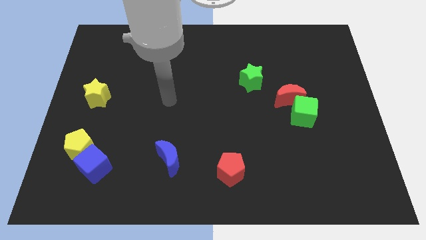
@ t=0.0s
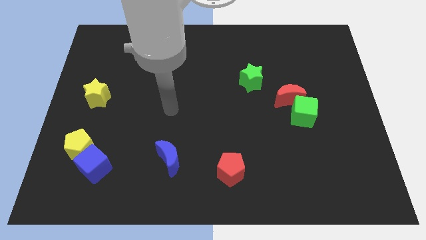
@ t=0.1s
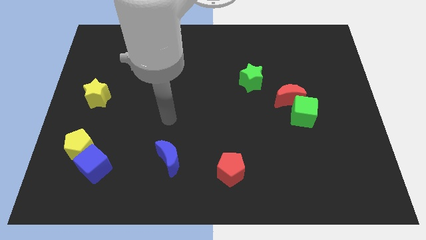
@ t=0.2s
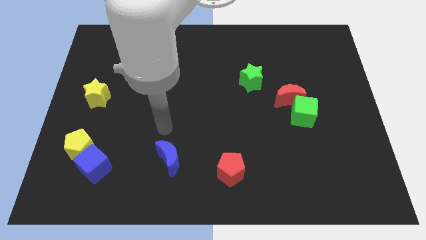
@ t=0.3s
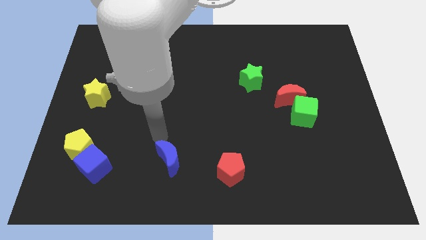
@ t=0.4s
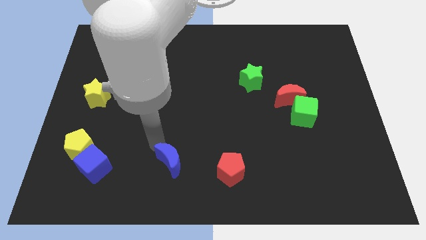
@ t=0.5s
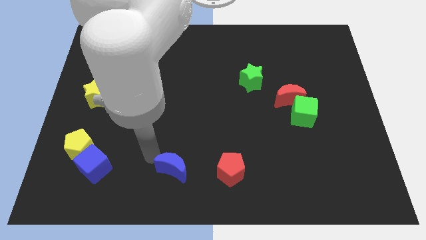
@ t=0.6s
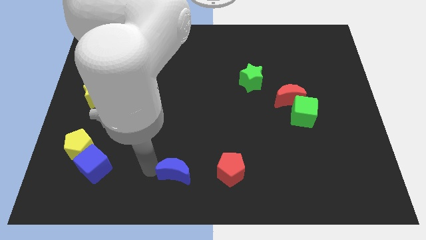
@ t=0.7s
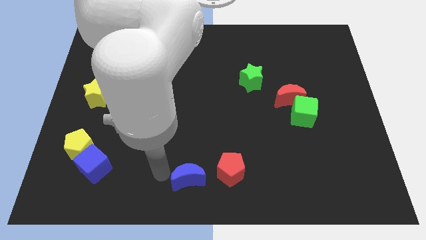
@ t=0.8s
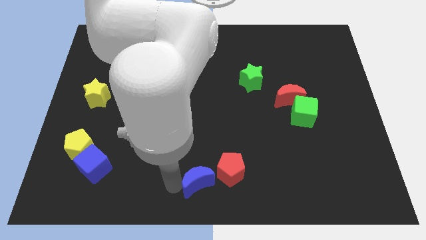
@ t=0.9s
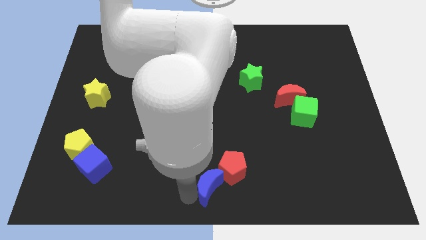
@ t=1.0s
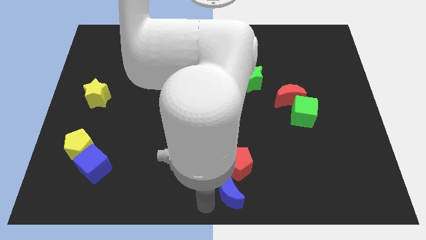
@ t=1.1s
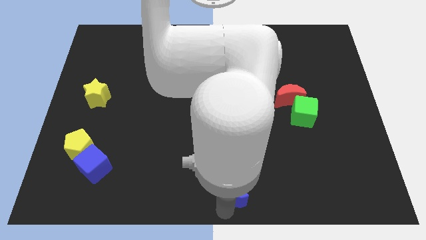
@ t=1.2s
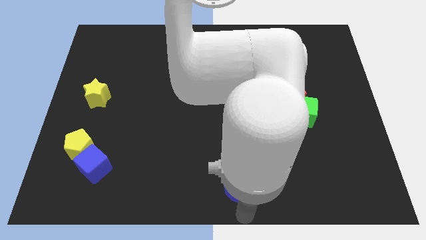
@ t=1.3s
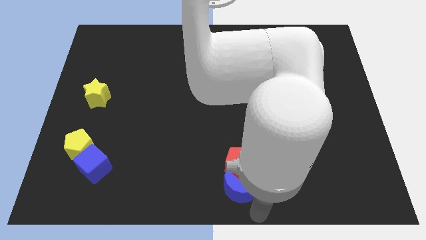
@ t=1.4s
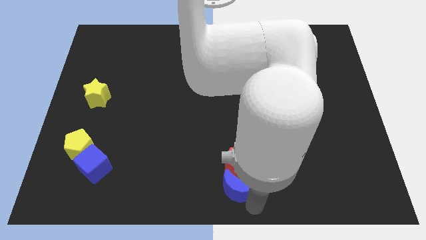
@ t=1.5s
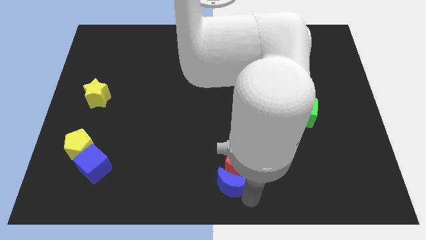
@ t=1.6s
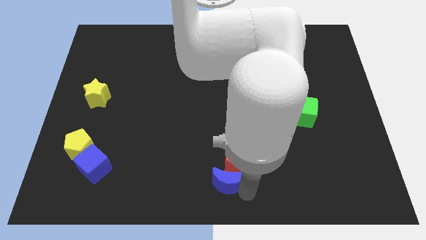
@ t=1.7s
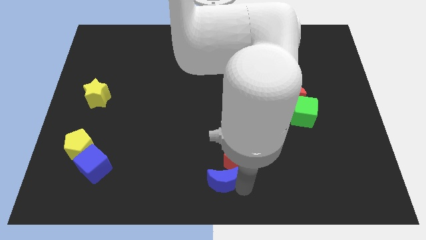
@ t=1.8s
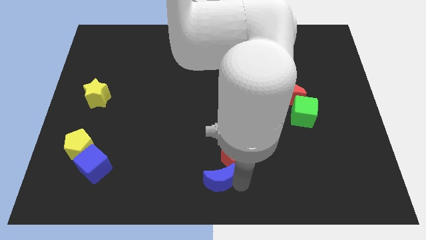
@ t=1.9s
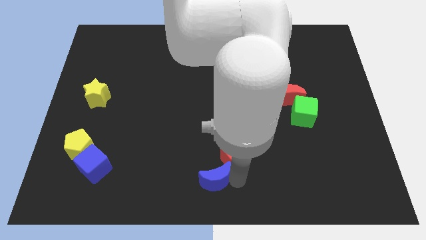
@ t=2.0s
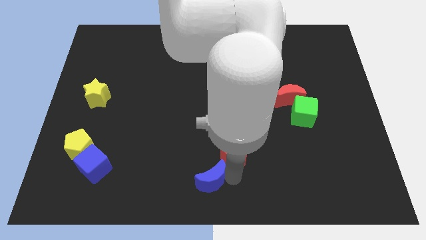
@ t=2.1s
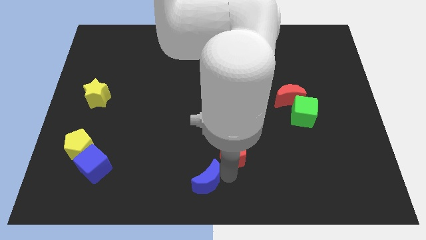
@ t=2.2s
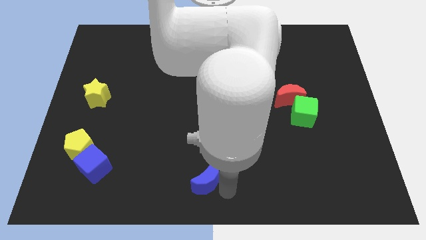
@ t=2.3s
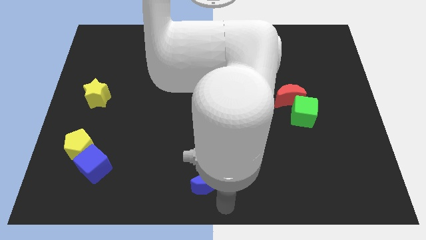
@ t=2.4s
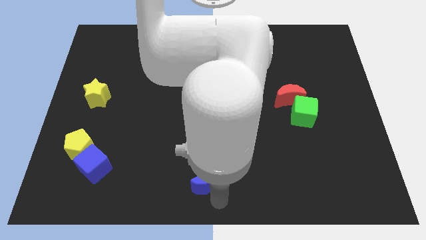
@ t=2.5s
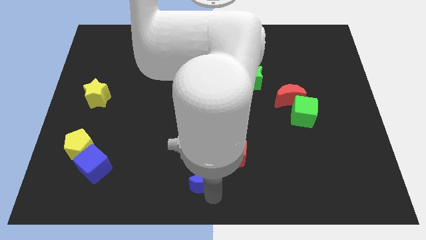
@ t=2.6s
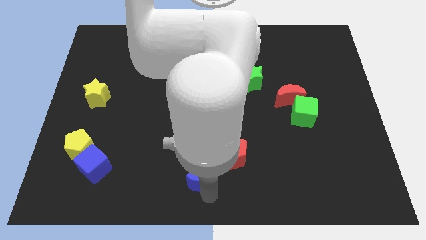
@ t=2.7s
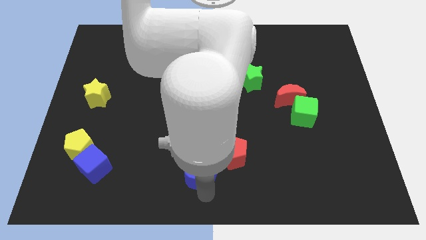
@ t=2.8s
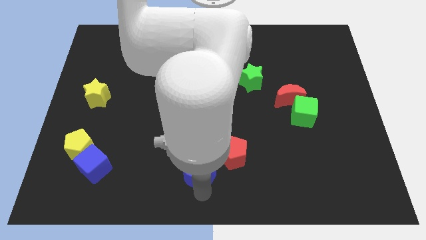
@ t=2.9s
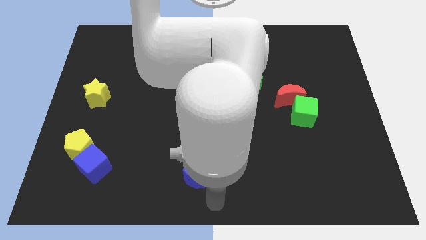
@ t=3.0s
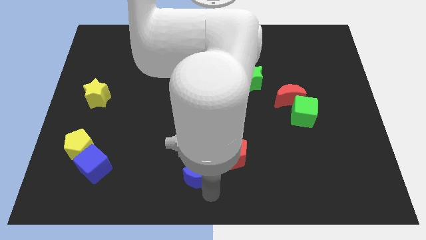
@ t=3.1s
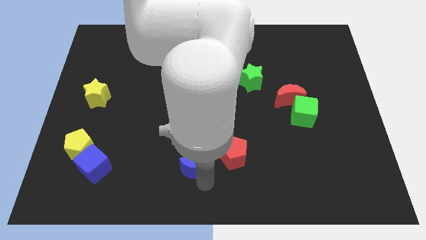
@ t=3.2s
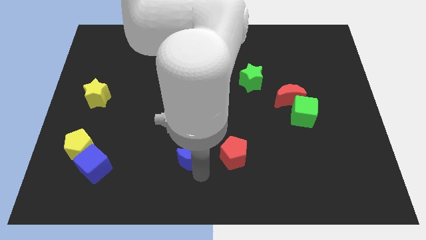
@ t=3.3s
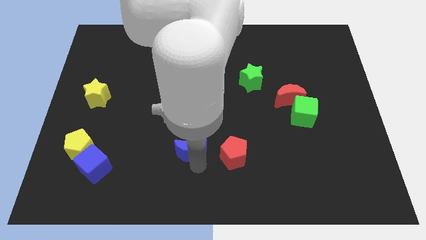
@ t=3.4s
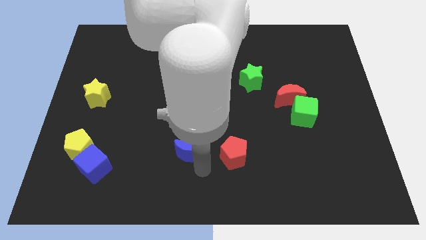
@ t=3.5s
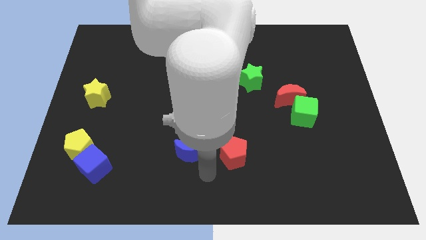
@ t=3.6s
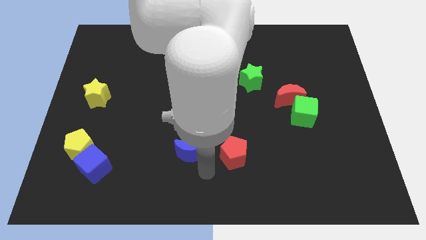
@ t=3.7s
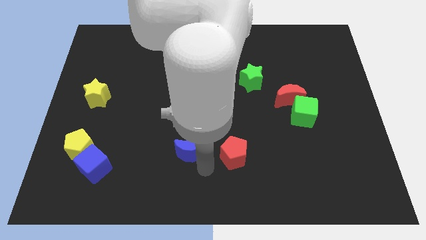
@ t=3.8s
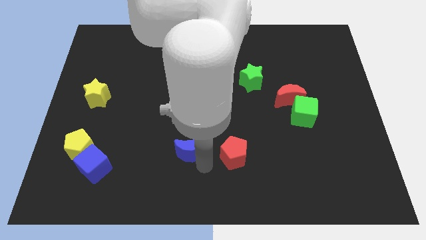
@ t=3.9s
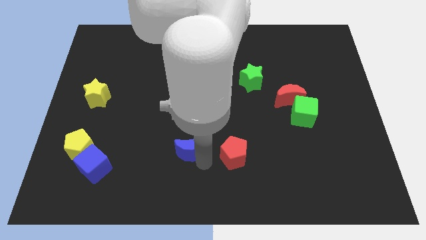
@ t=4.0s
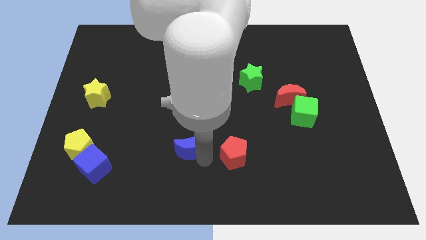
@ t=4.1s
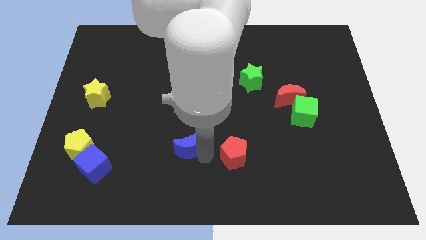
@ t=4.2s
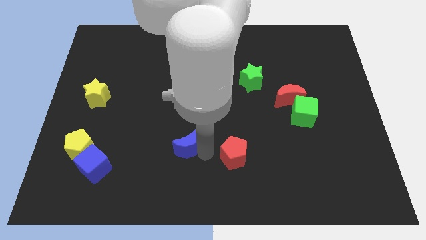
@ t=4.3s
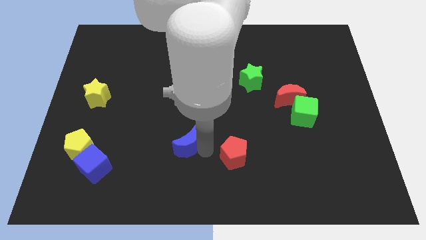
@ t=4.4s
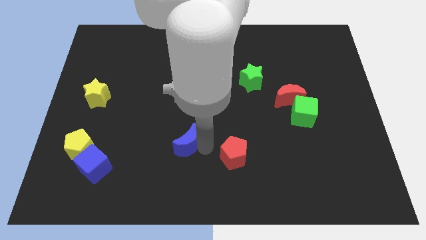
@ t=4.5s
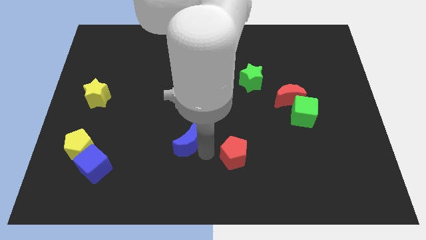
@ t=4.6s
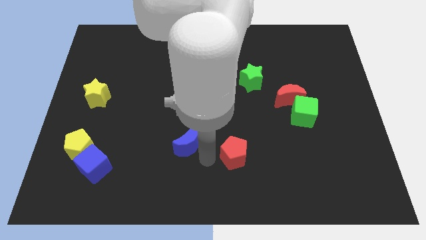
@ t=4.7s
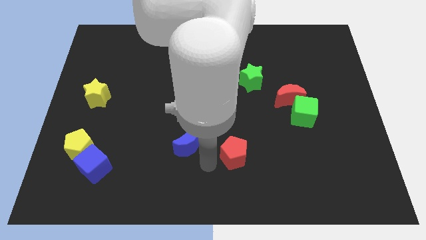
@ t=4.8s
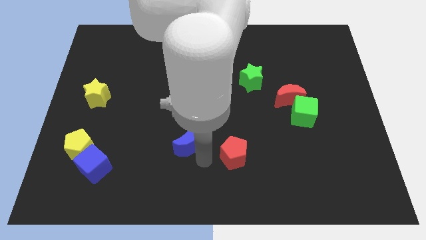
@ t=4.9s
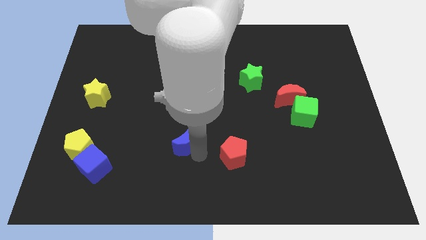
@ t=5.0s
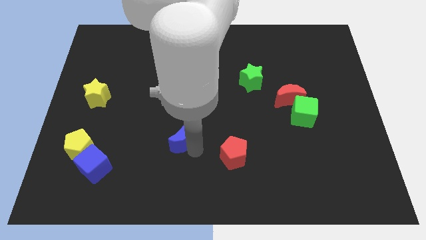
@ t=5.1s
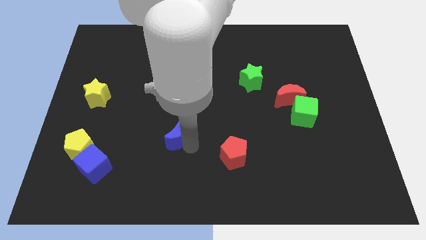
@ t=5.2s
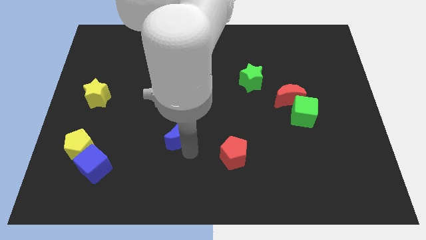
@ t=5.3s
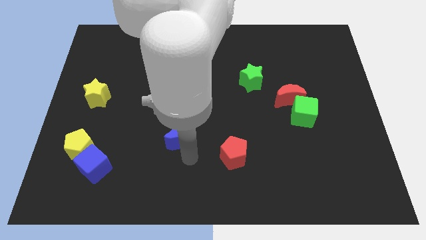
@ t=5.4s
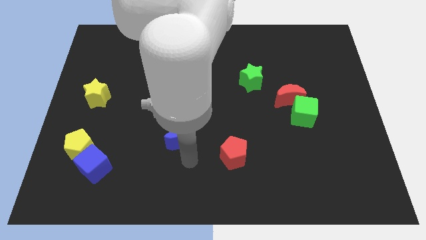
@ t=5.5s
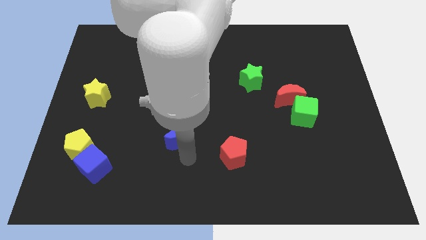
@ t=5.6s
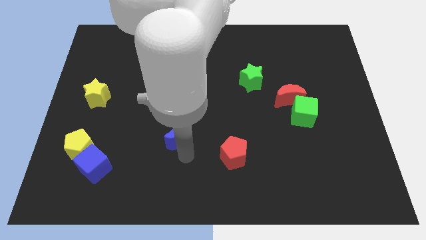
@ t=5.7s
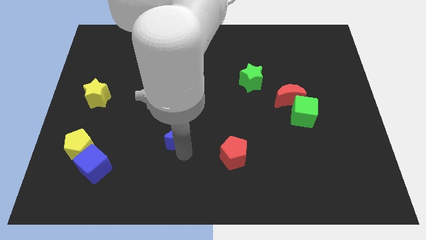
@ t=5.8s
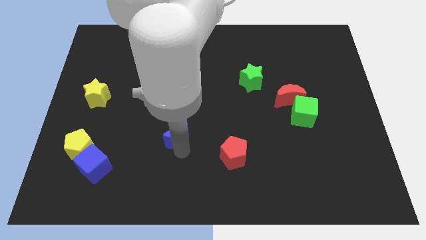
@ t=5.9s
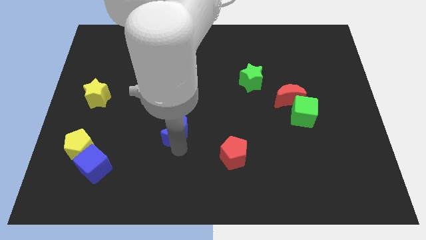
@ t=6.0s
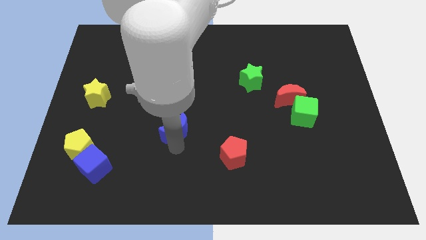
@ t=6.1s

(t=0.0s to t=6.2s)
move the blue moon up a little

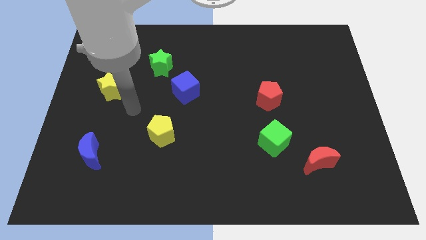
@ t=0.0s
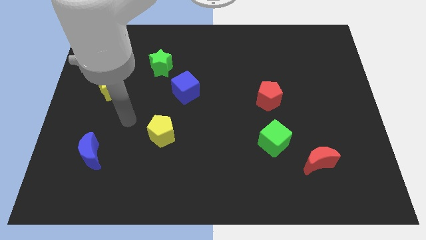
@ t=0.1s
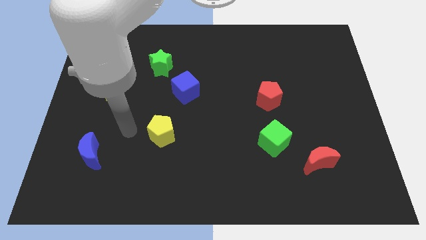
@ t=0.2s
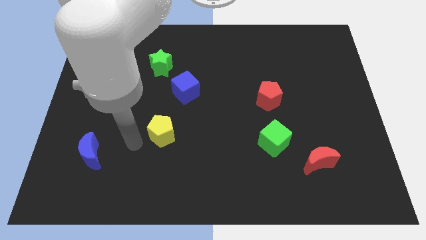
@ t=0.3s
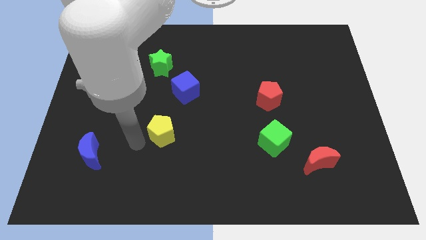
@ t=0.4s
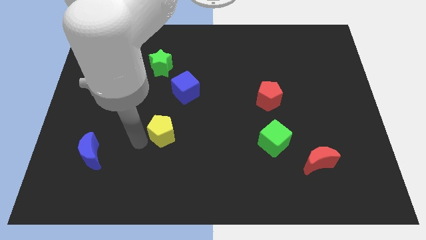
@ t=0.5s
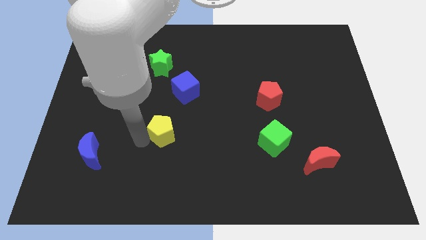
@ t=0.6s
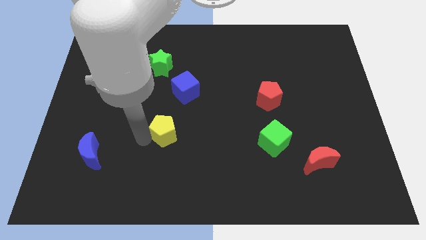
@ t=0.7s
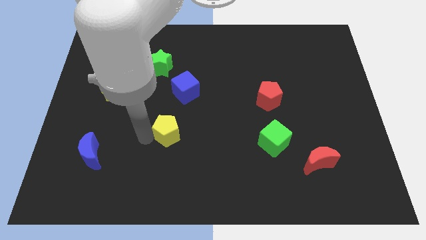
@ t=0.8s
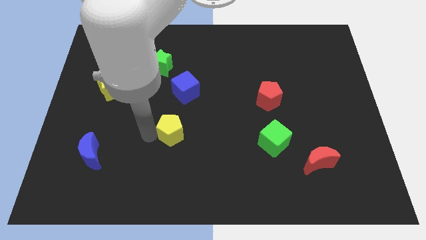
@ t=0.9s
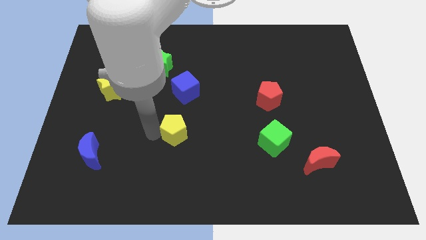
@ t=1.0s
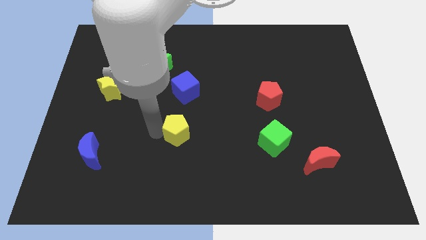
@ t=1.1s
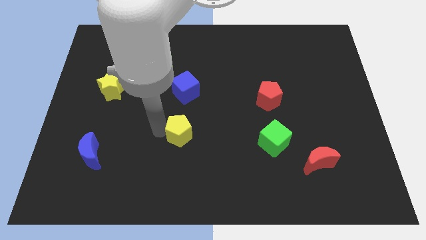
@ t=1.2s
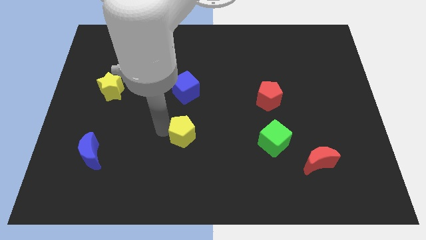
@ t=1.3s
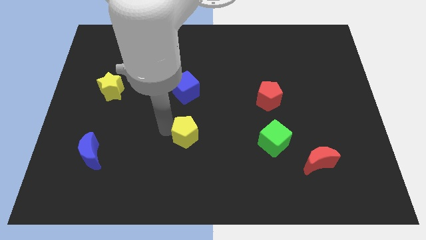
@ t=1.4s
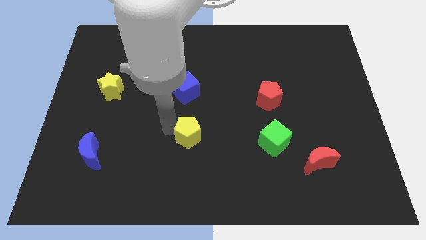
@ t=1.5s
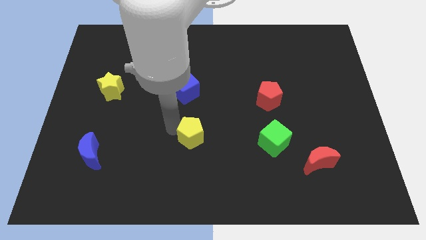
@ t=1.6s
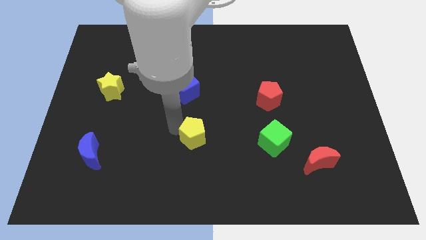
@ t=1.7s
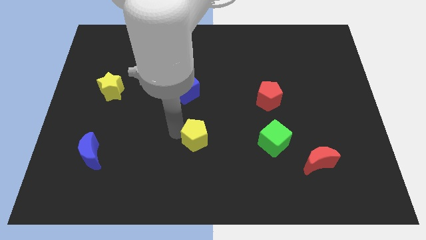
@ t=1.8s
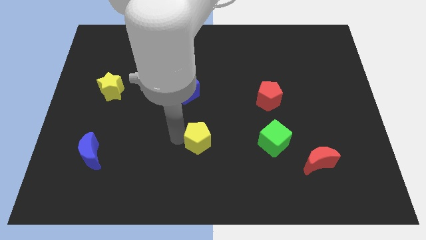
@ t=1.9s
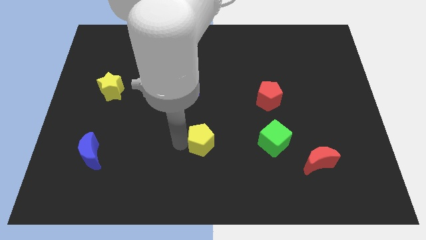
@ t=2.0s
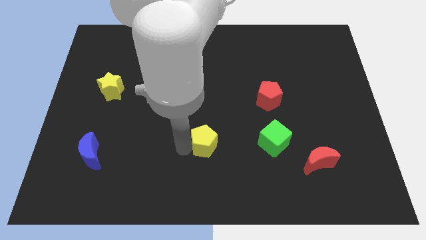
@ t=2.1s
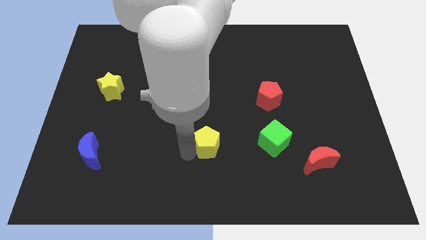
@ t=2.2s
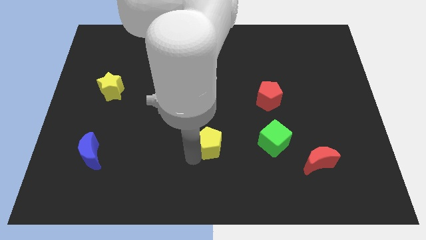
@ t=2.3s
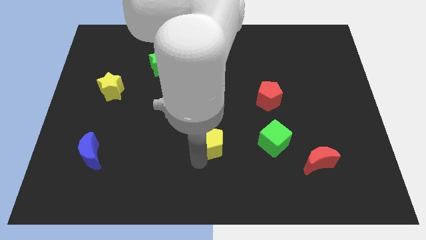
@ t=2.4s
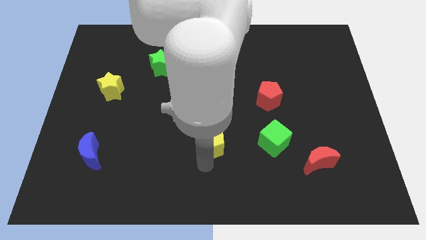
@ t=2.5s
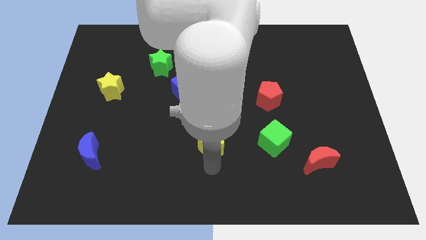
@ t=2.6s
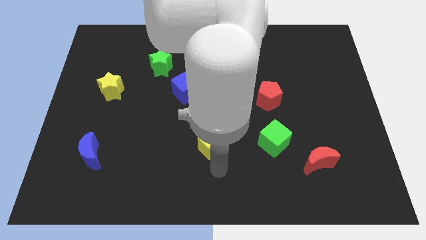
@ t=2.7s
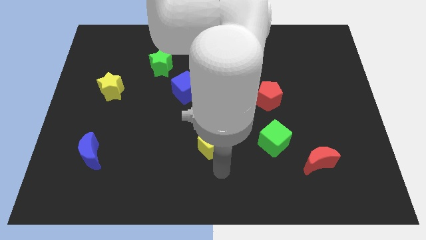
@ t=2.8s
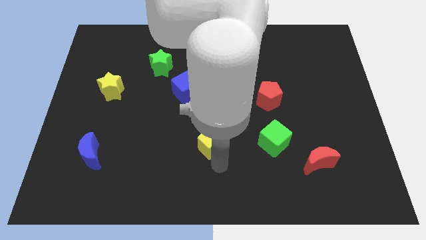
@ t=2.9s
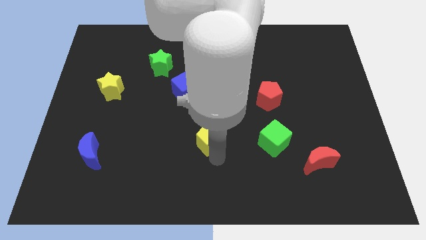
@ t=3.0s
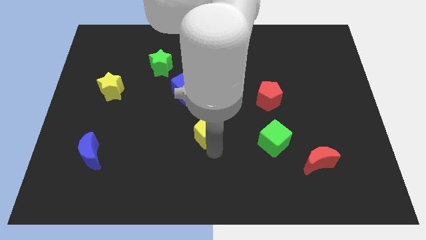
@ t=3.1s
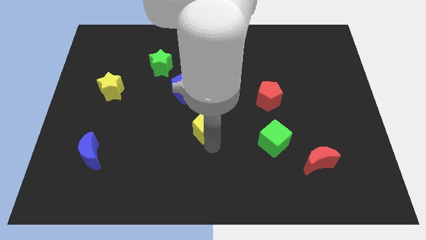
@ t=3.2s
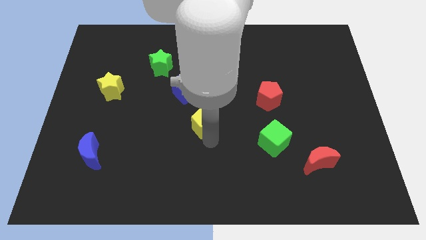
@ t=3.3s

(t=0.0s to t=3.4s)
slide the yellow pentagon diagonally upwards and to the right slightly
